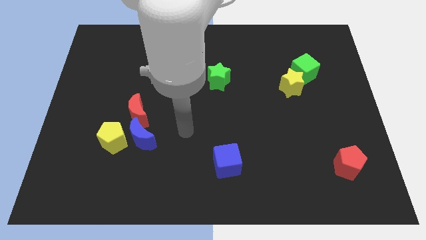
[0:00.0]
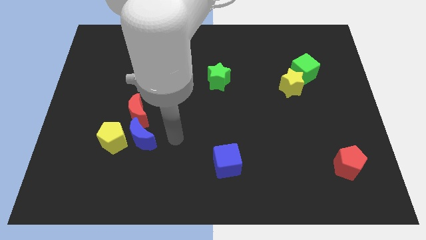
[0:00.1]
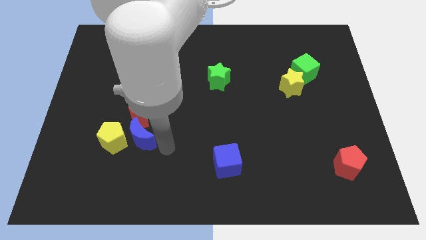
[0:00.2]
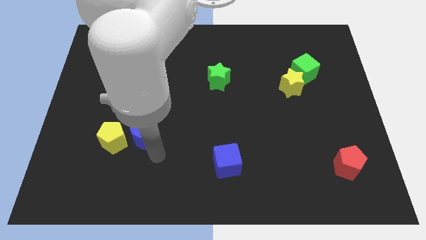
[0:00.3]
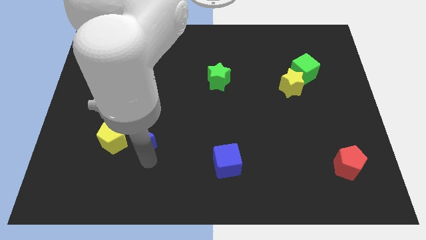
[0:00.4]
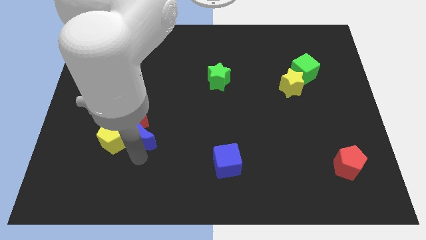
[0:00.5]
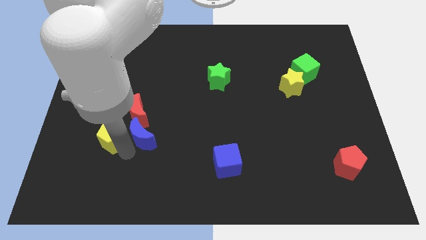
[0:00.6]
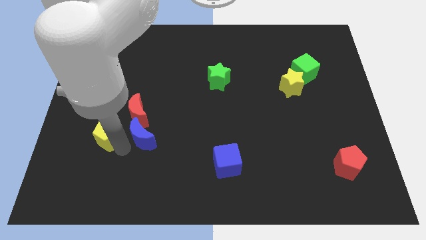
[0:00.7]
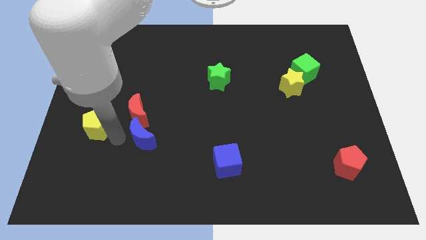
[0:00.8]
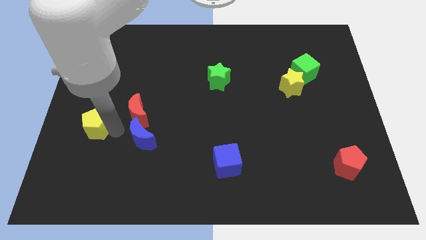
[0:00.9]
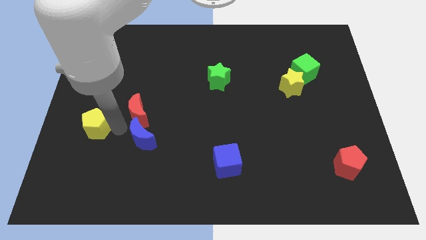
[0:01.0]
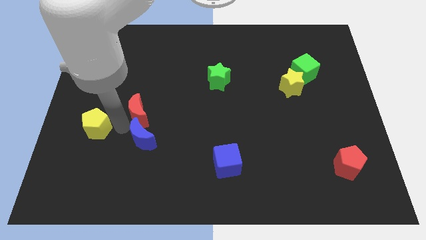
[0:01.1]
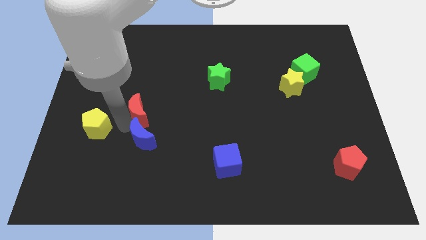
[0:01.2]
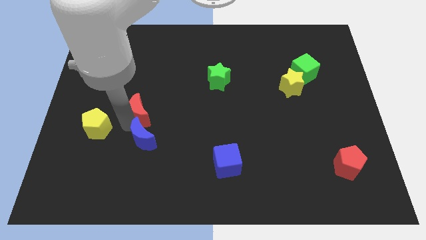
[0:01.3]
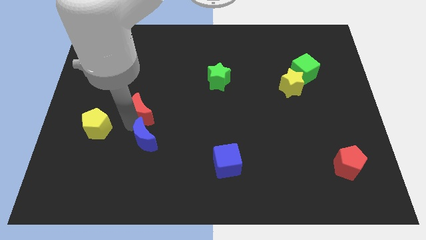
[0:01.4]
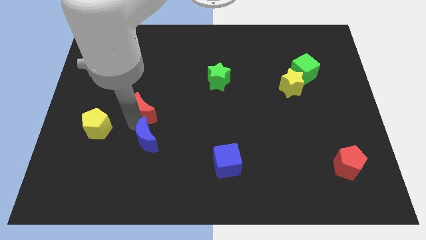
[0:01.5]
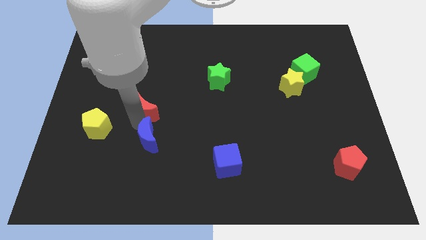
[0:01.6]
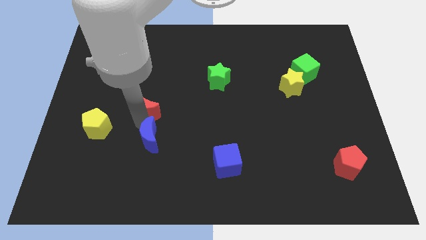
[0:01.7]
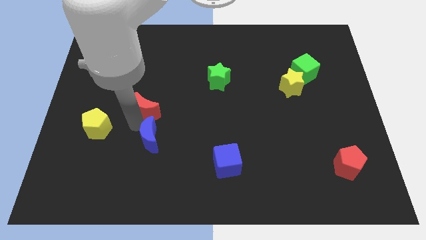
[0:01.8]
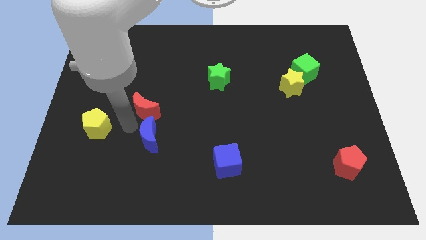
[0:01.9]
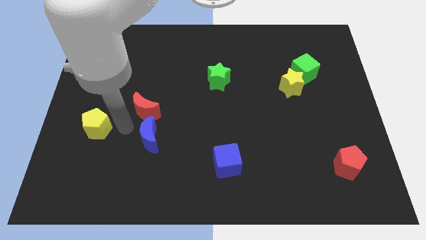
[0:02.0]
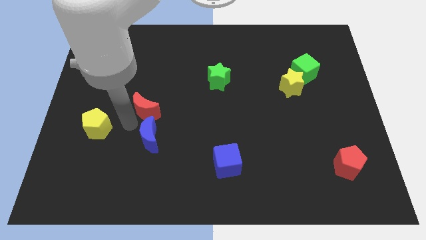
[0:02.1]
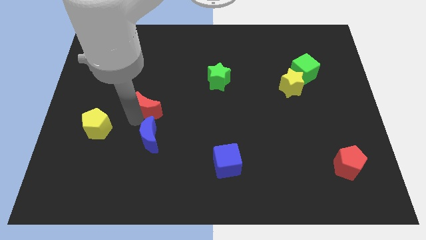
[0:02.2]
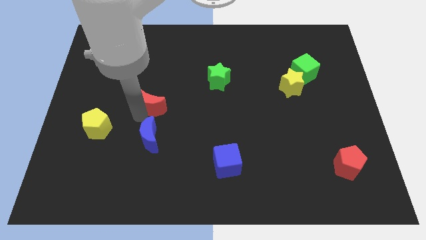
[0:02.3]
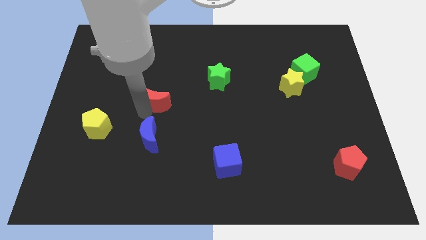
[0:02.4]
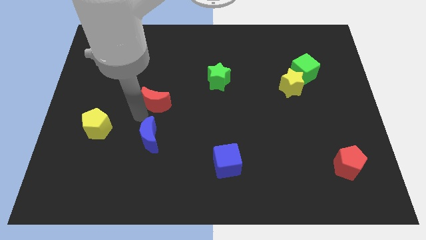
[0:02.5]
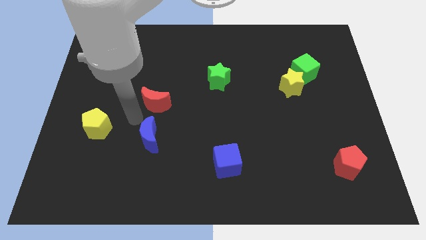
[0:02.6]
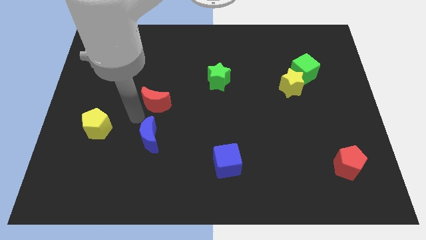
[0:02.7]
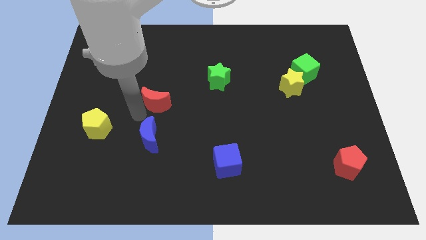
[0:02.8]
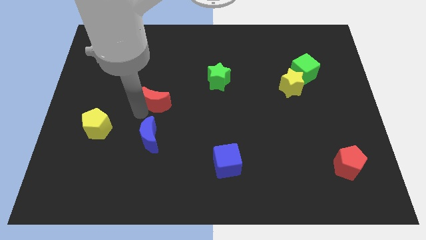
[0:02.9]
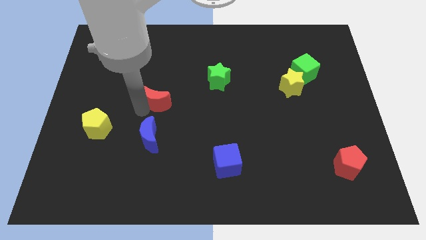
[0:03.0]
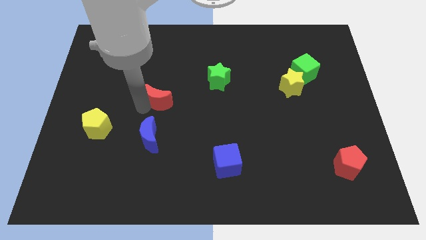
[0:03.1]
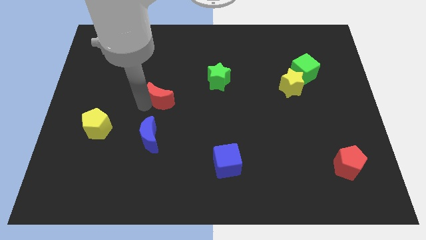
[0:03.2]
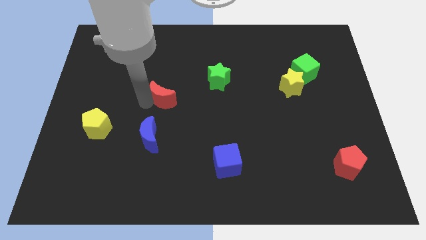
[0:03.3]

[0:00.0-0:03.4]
push the red moon upwards and right slightly

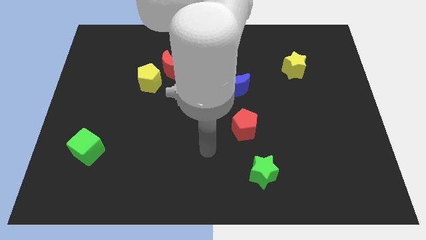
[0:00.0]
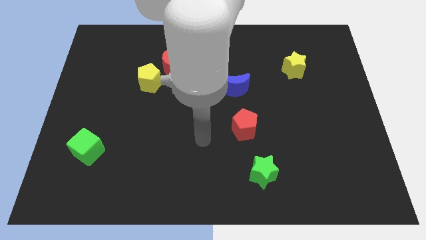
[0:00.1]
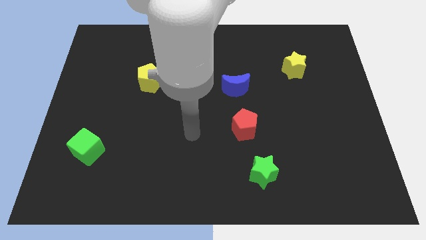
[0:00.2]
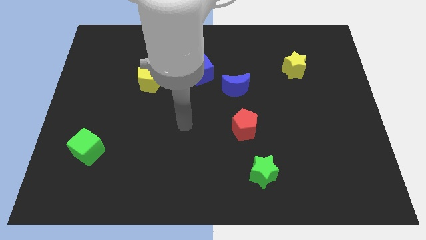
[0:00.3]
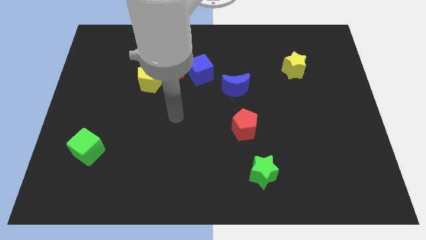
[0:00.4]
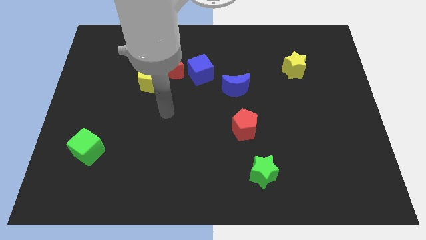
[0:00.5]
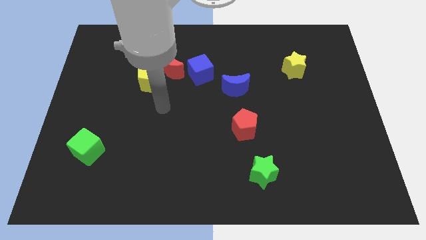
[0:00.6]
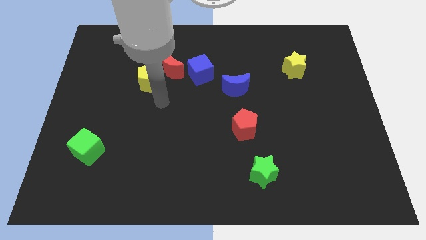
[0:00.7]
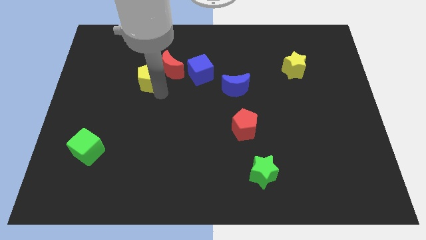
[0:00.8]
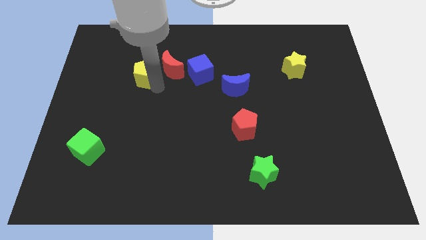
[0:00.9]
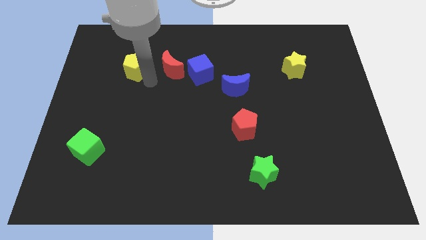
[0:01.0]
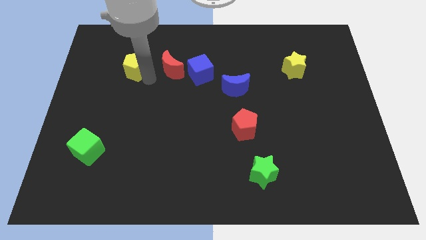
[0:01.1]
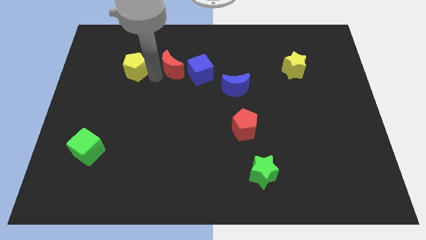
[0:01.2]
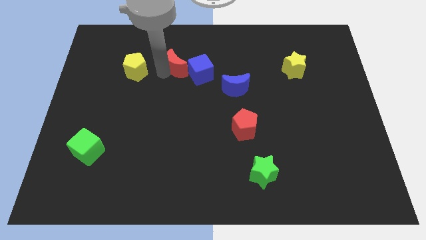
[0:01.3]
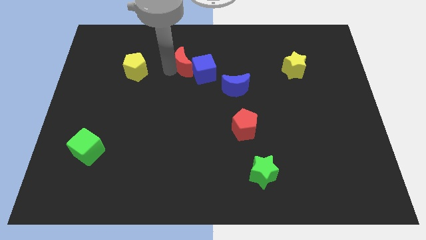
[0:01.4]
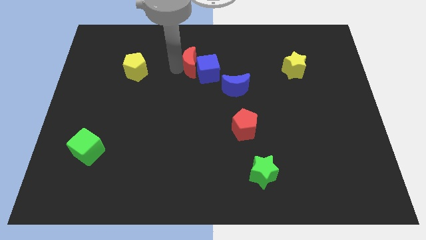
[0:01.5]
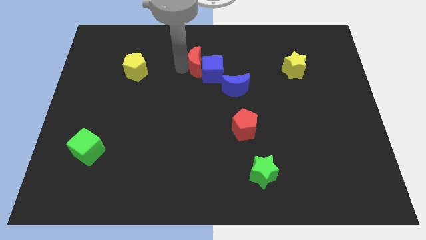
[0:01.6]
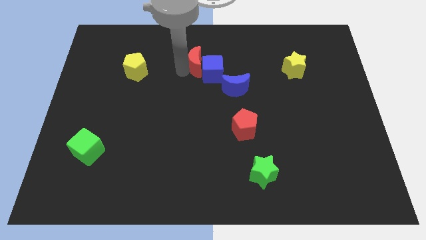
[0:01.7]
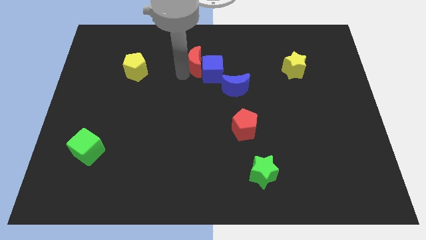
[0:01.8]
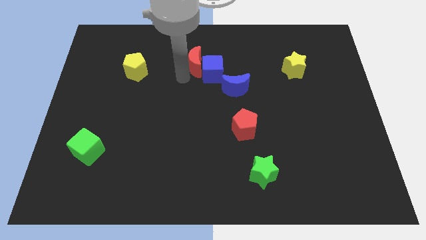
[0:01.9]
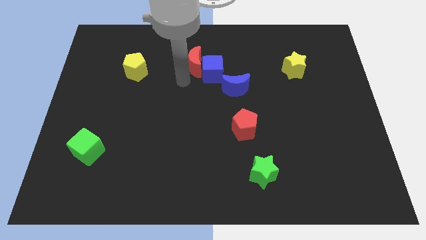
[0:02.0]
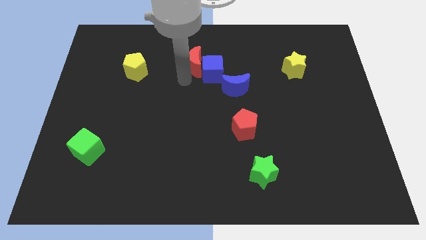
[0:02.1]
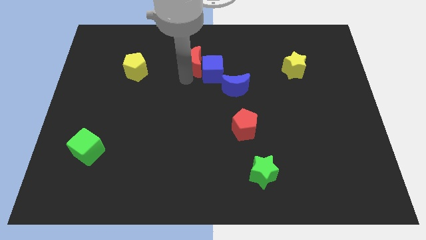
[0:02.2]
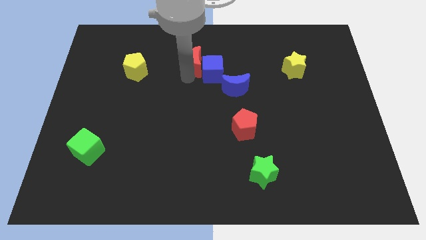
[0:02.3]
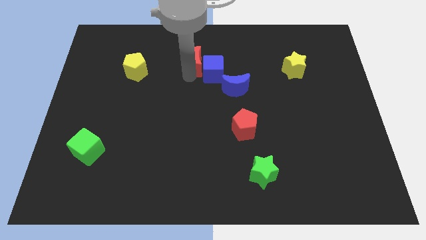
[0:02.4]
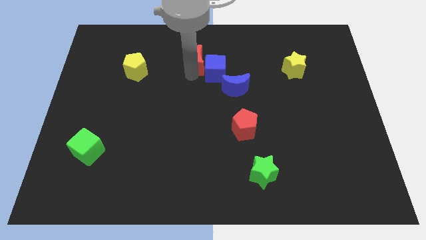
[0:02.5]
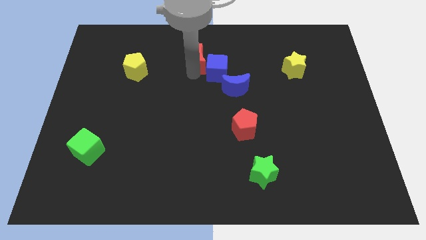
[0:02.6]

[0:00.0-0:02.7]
slightly move the red moon right

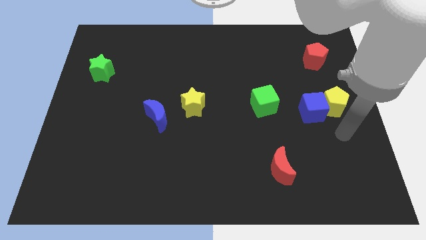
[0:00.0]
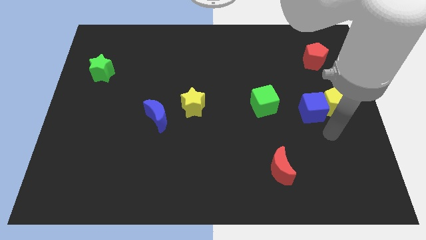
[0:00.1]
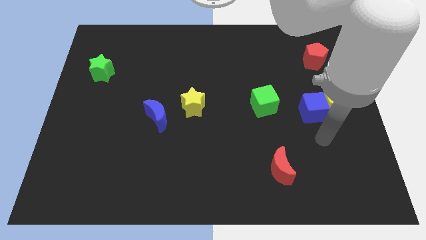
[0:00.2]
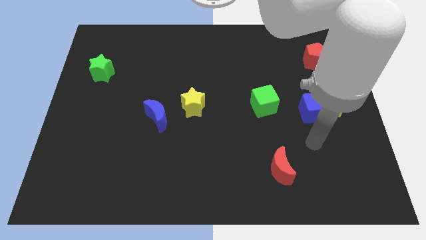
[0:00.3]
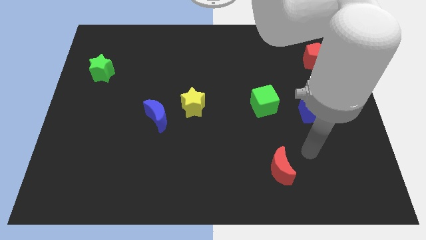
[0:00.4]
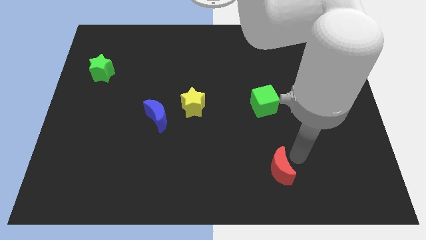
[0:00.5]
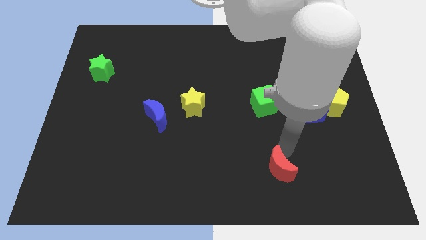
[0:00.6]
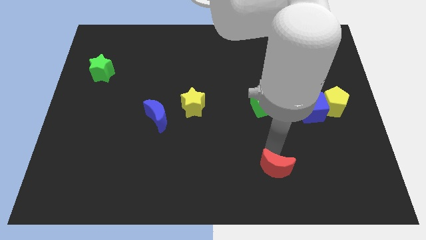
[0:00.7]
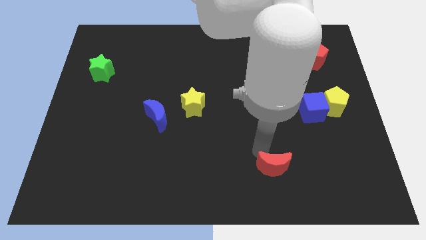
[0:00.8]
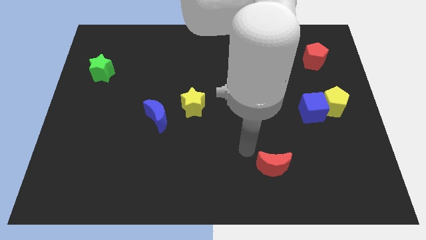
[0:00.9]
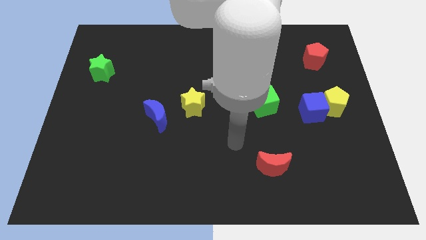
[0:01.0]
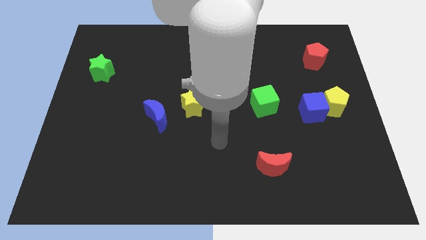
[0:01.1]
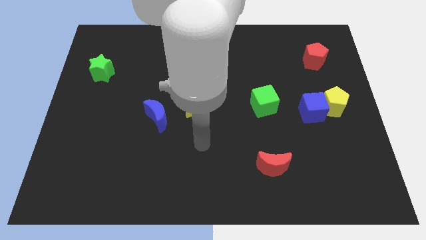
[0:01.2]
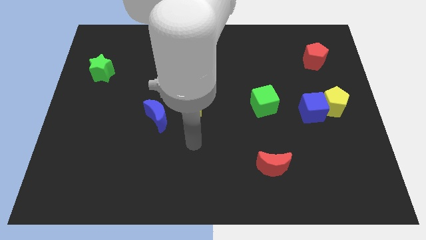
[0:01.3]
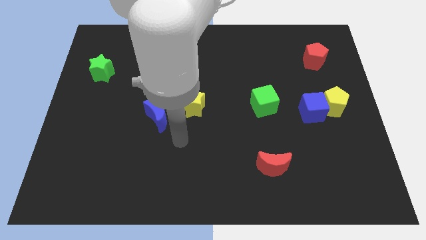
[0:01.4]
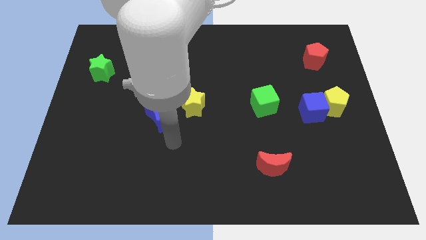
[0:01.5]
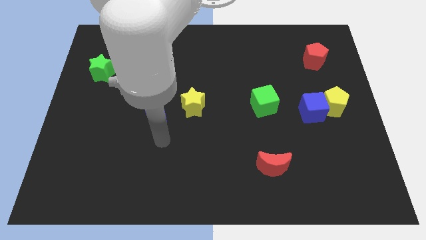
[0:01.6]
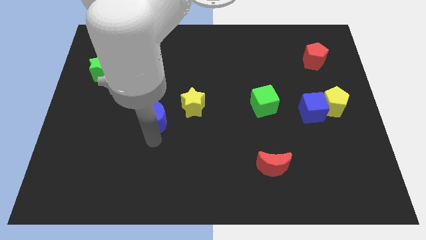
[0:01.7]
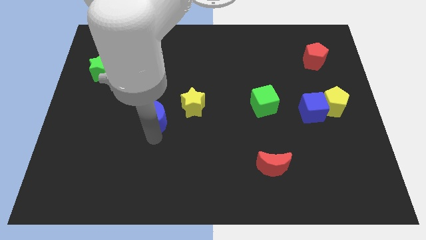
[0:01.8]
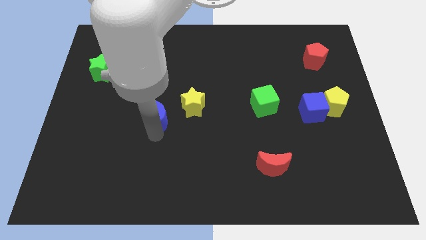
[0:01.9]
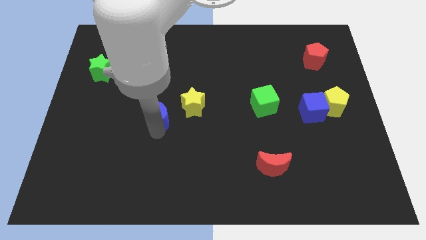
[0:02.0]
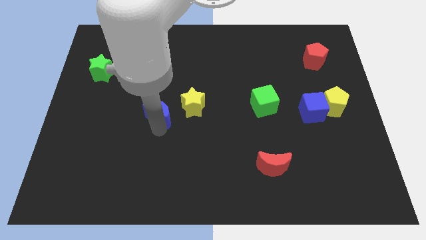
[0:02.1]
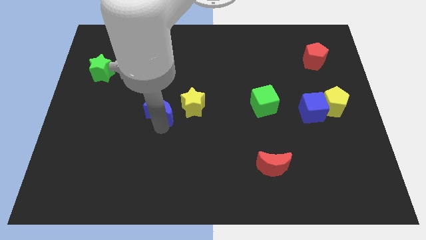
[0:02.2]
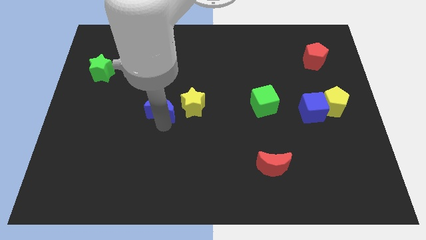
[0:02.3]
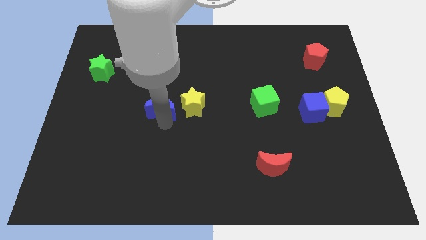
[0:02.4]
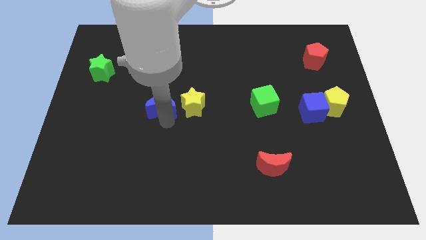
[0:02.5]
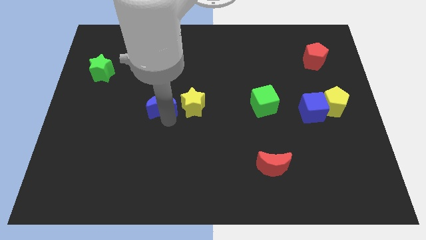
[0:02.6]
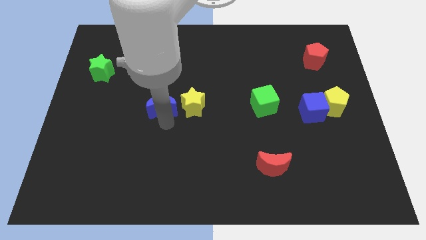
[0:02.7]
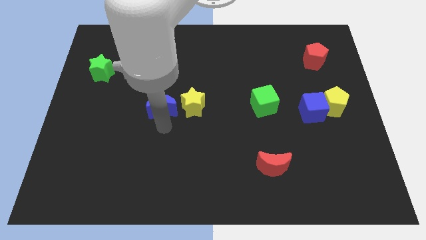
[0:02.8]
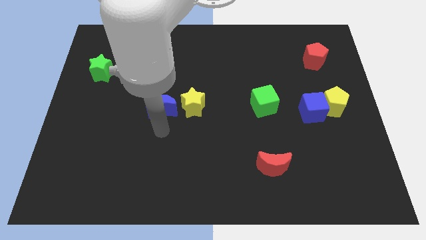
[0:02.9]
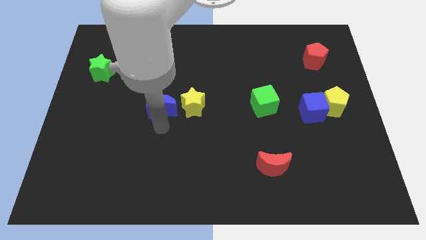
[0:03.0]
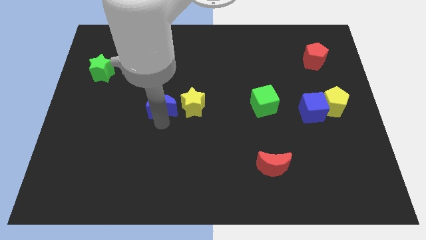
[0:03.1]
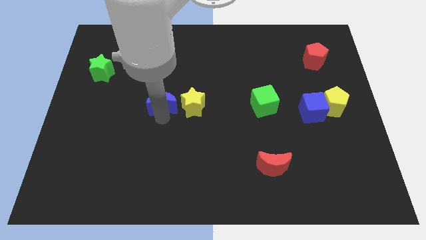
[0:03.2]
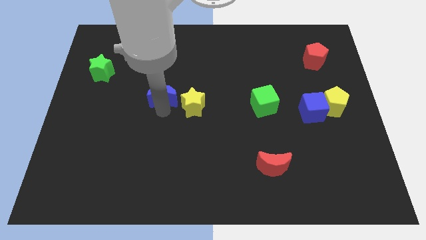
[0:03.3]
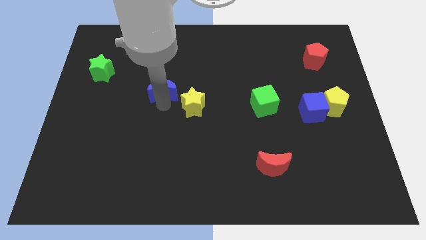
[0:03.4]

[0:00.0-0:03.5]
move the blue moon upwards a bit
